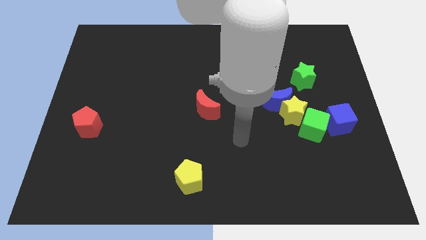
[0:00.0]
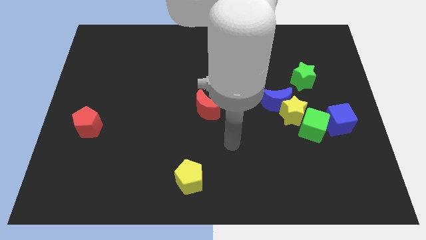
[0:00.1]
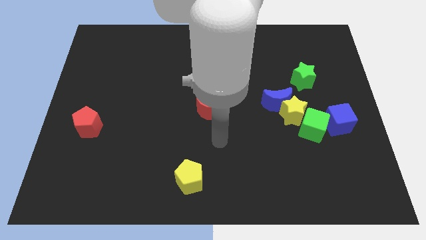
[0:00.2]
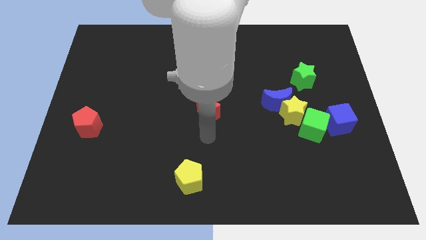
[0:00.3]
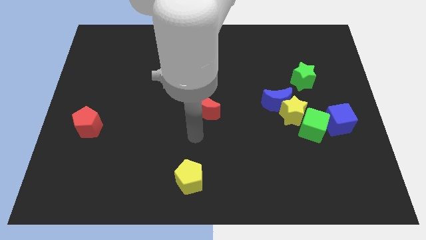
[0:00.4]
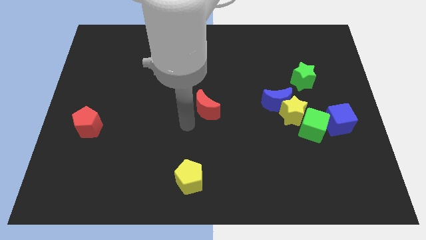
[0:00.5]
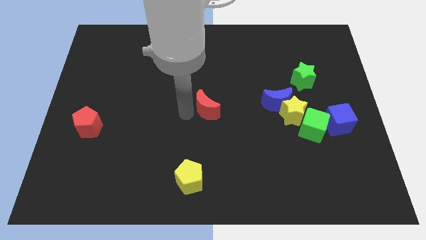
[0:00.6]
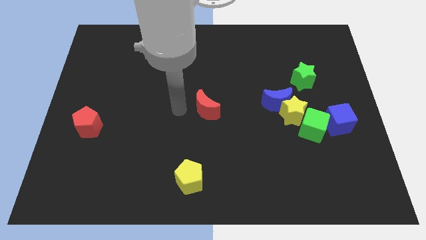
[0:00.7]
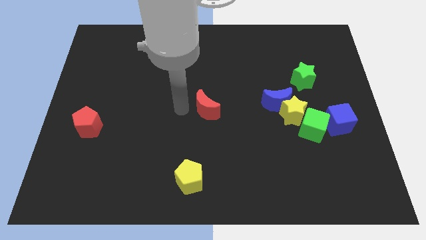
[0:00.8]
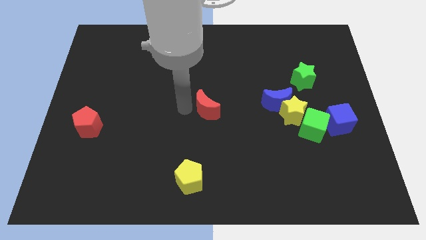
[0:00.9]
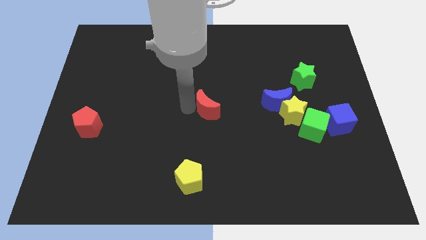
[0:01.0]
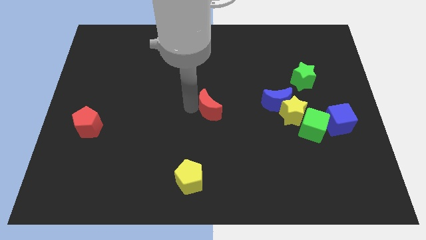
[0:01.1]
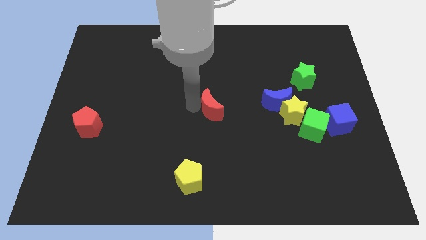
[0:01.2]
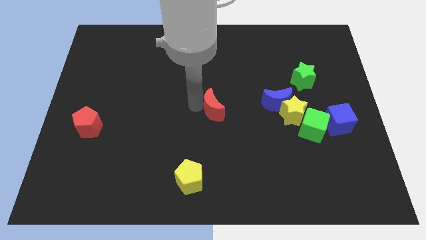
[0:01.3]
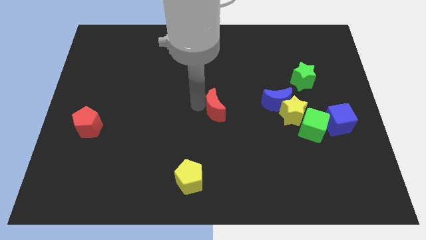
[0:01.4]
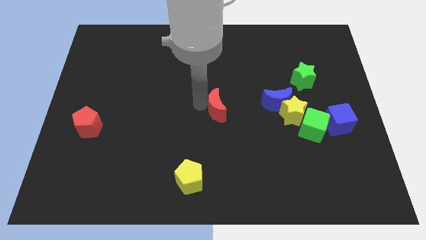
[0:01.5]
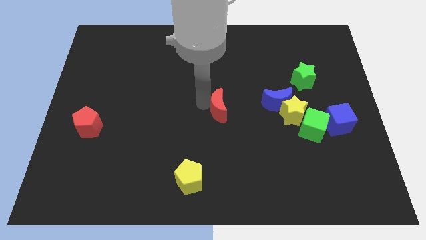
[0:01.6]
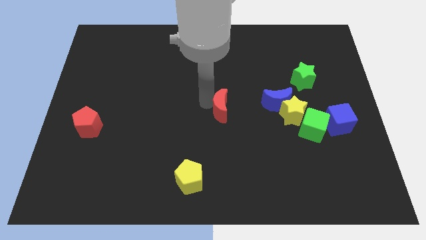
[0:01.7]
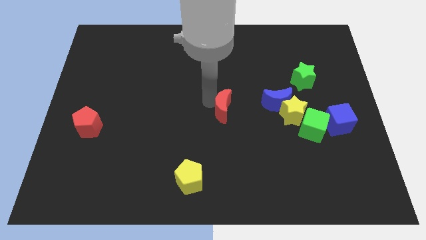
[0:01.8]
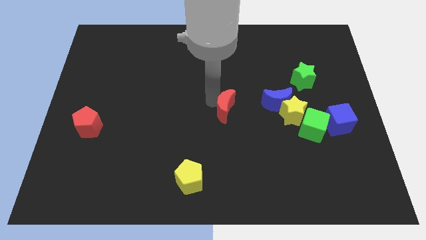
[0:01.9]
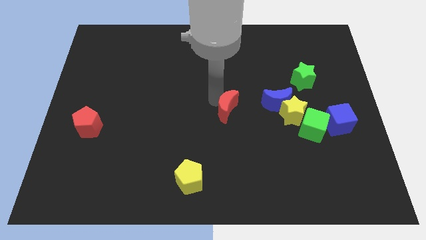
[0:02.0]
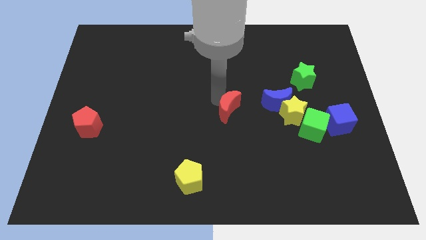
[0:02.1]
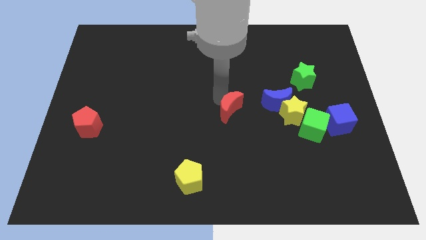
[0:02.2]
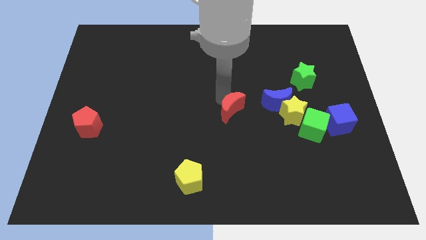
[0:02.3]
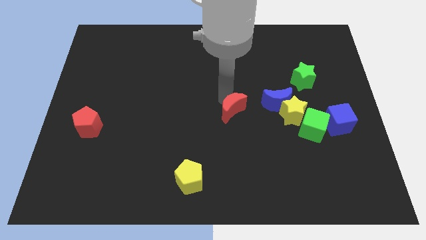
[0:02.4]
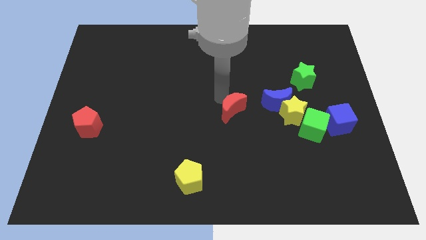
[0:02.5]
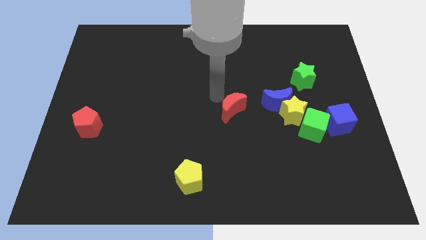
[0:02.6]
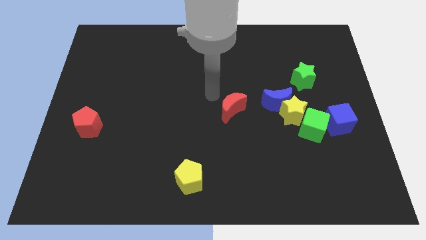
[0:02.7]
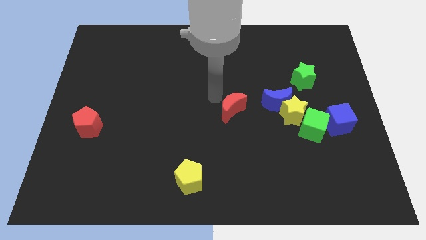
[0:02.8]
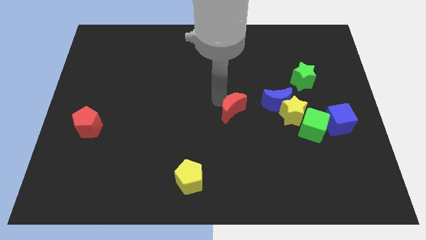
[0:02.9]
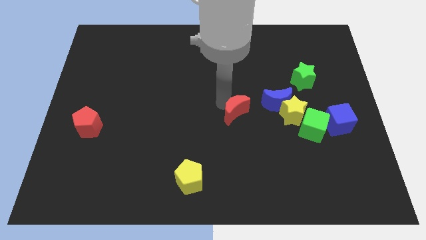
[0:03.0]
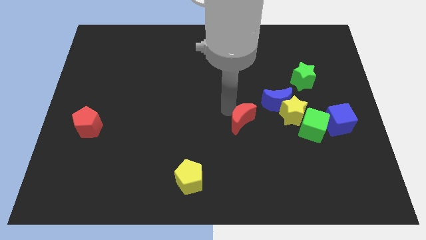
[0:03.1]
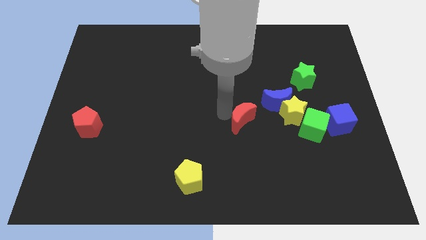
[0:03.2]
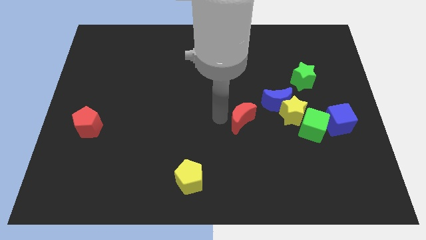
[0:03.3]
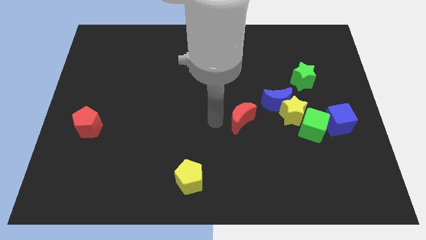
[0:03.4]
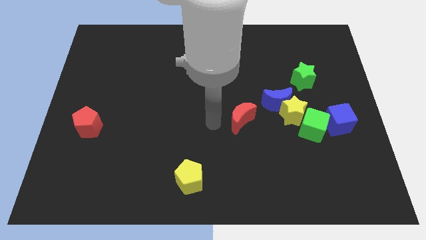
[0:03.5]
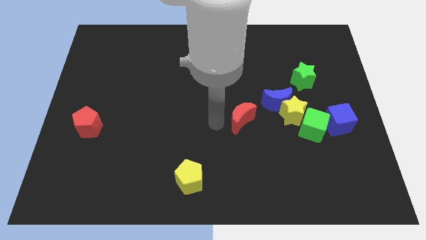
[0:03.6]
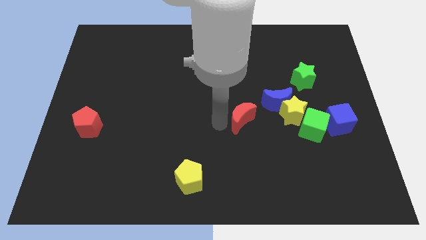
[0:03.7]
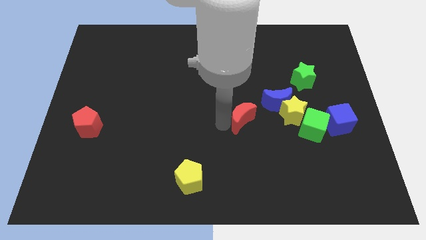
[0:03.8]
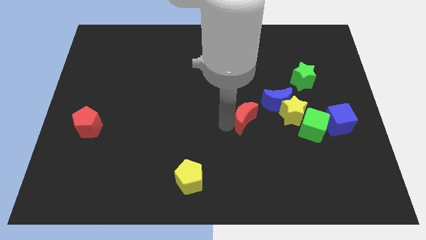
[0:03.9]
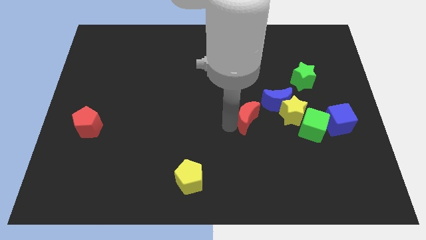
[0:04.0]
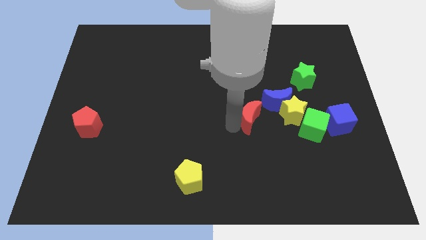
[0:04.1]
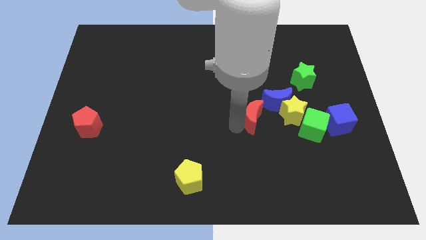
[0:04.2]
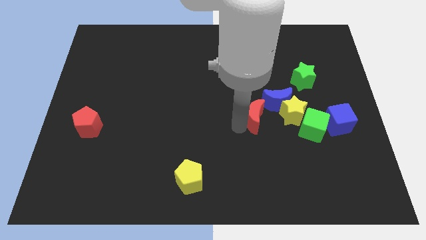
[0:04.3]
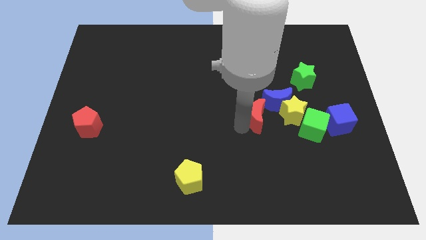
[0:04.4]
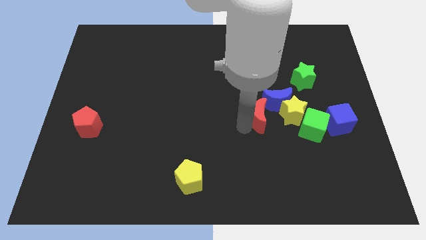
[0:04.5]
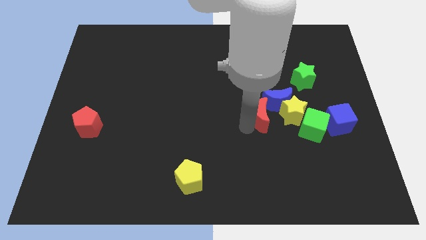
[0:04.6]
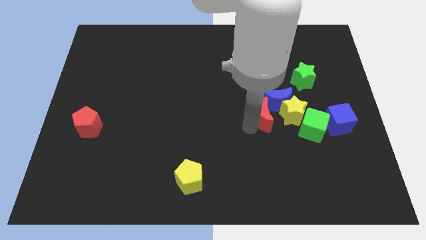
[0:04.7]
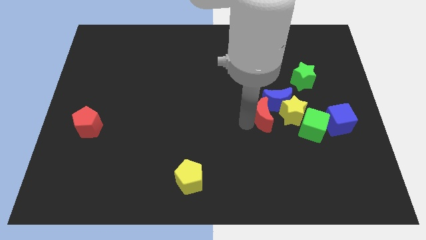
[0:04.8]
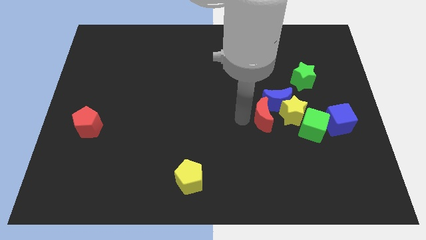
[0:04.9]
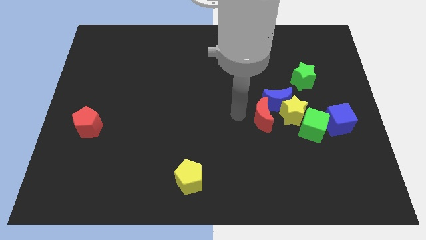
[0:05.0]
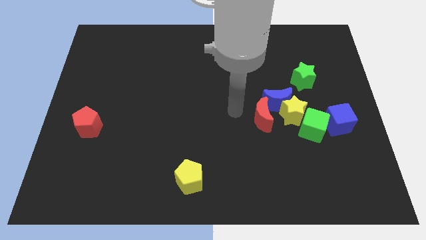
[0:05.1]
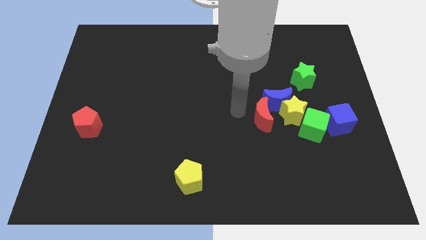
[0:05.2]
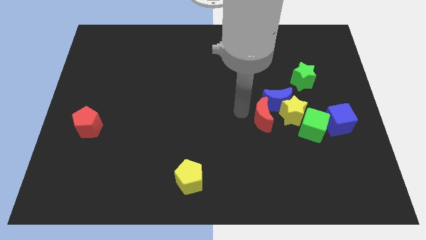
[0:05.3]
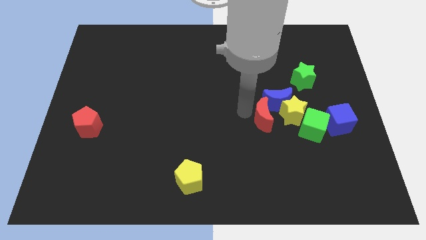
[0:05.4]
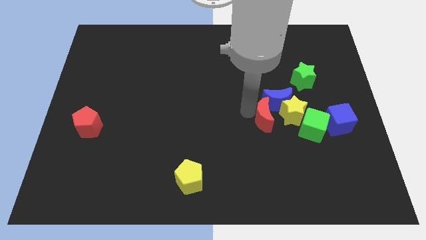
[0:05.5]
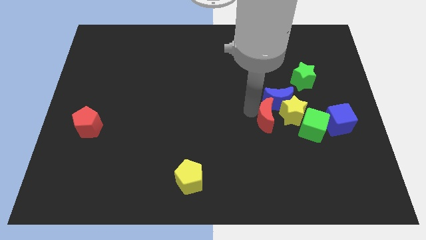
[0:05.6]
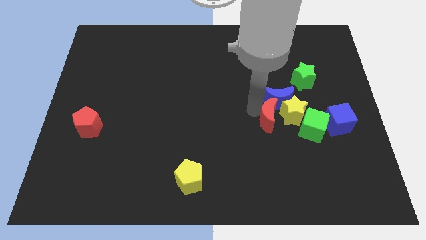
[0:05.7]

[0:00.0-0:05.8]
put the red moon towards the yellow star

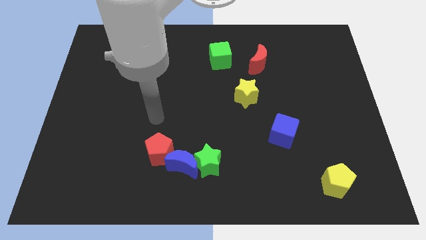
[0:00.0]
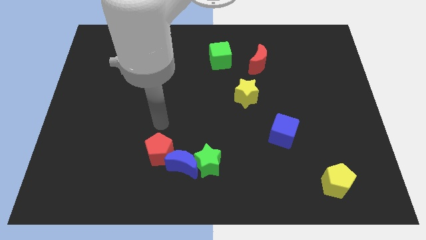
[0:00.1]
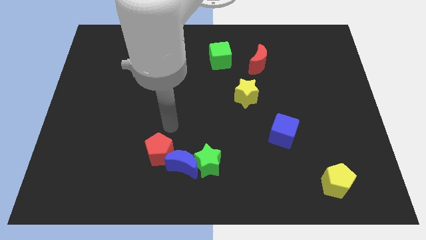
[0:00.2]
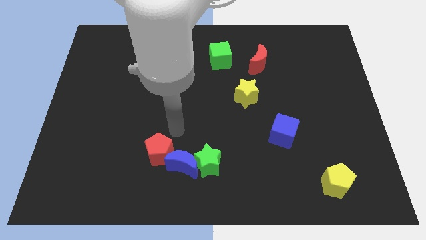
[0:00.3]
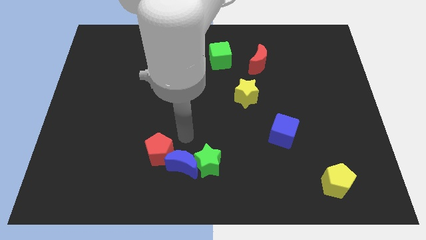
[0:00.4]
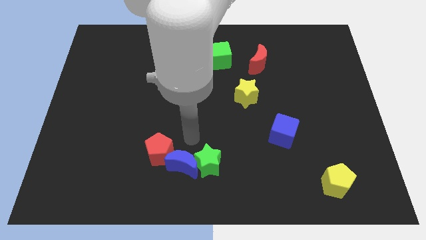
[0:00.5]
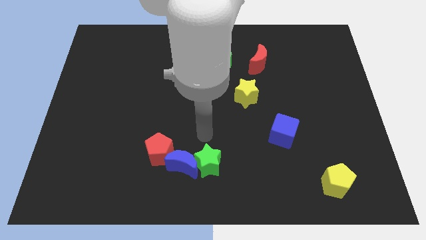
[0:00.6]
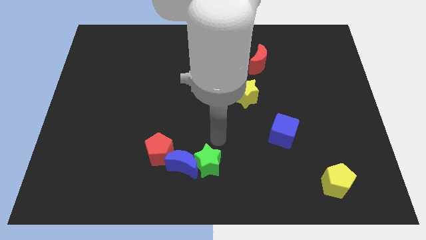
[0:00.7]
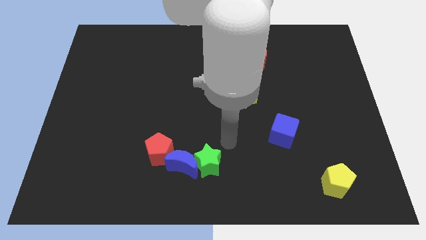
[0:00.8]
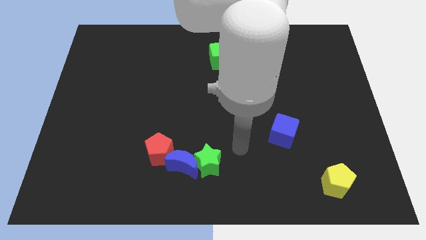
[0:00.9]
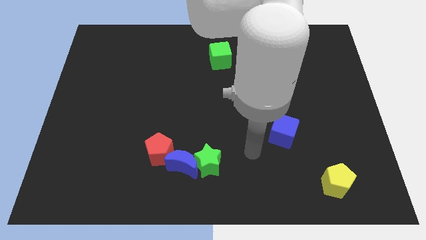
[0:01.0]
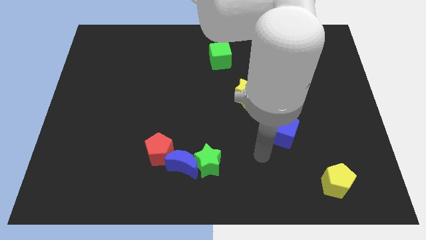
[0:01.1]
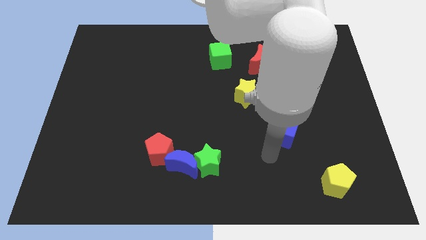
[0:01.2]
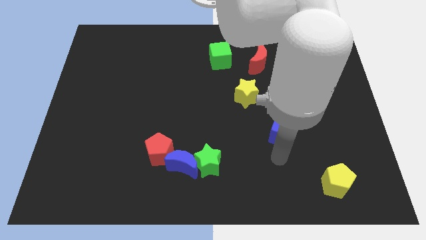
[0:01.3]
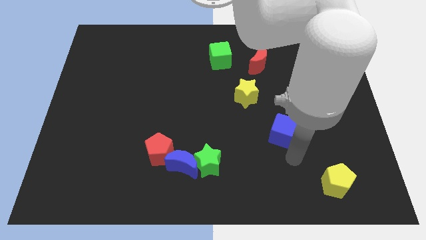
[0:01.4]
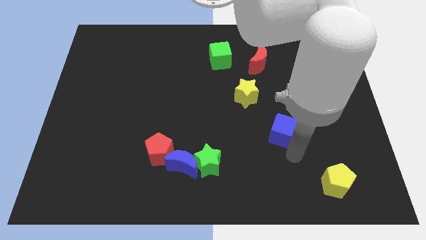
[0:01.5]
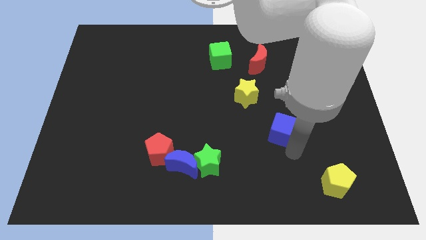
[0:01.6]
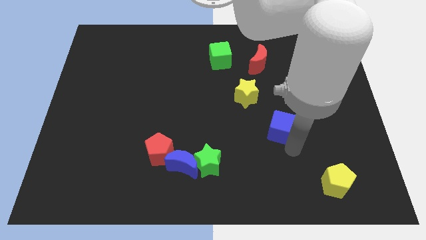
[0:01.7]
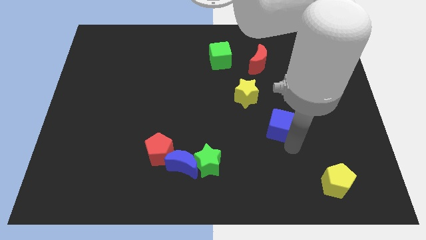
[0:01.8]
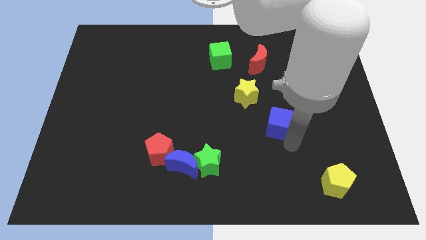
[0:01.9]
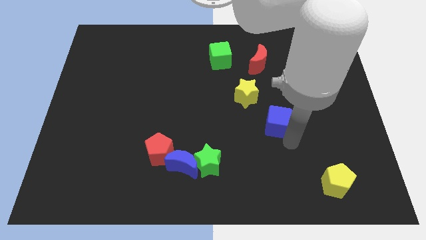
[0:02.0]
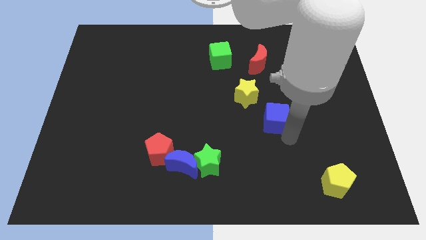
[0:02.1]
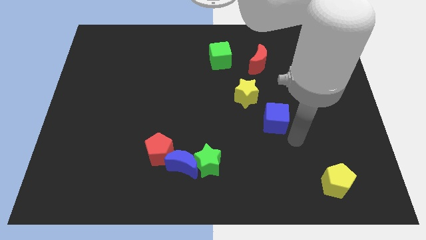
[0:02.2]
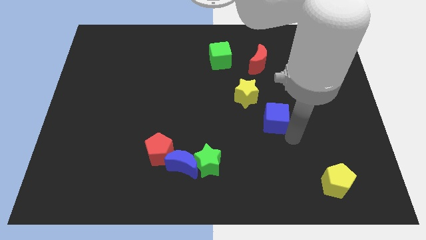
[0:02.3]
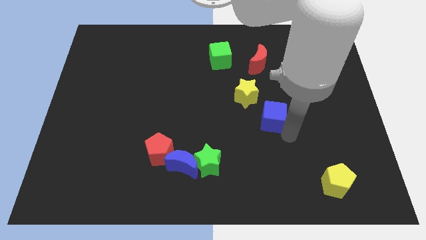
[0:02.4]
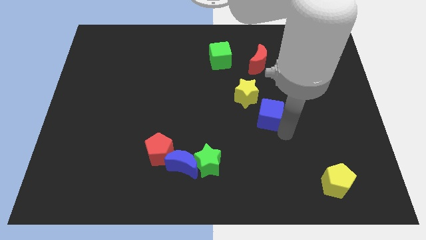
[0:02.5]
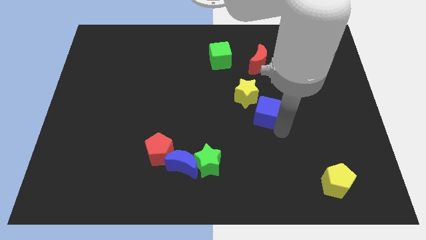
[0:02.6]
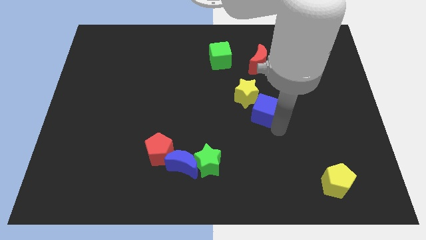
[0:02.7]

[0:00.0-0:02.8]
push the blue cube close to the yellow star
